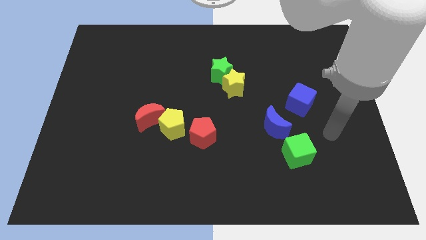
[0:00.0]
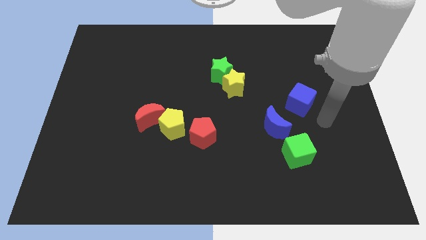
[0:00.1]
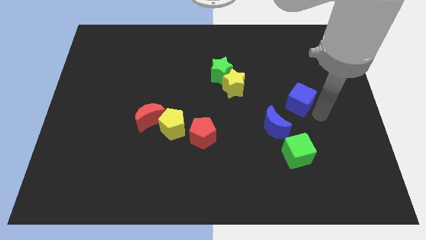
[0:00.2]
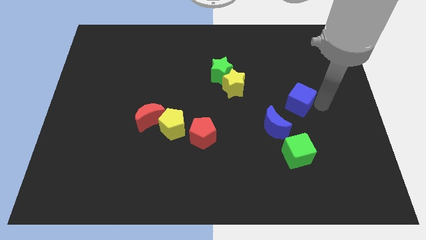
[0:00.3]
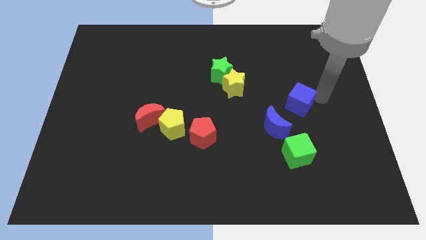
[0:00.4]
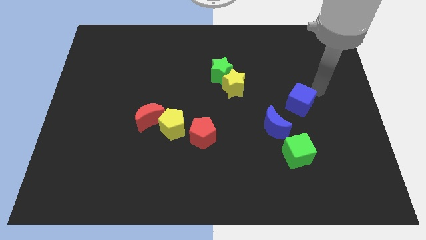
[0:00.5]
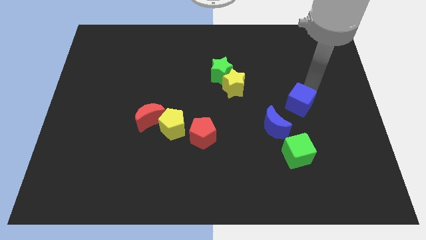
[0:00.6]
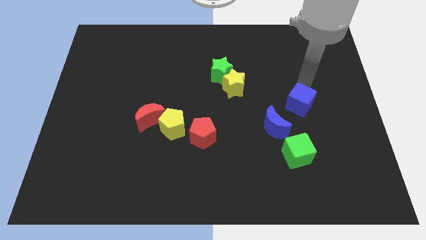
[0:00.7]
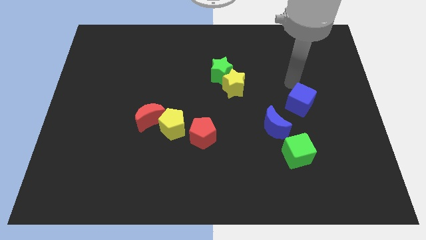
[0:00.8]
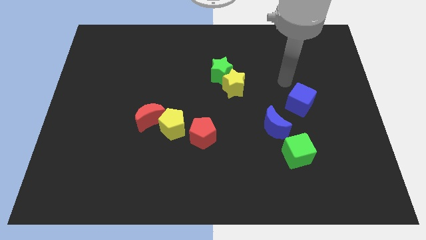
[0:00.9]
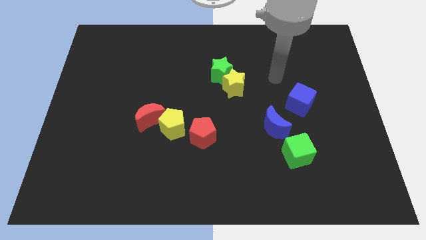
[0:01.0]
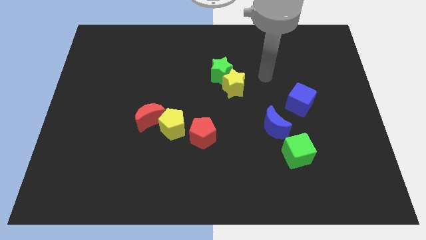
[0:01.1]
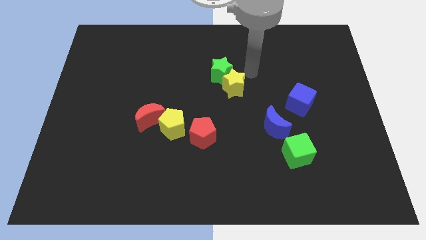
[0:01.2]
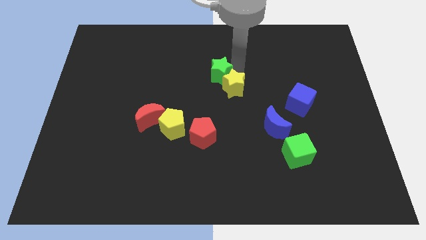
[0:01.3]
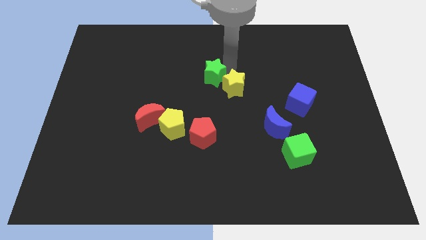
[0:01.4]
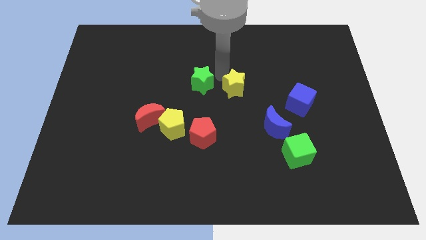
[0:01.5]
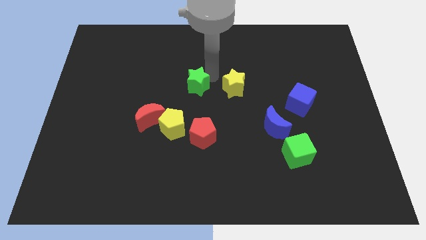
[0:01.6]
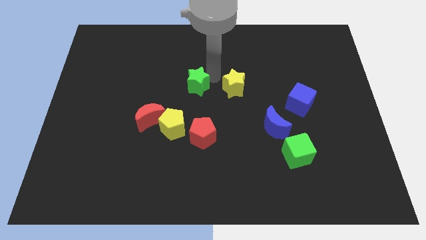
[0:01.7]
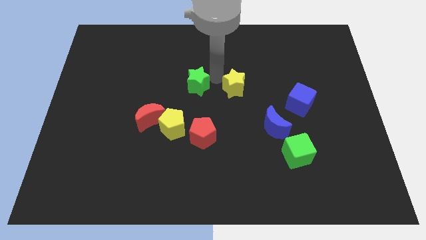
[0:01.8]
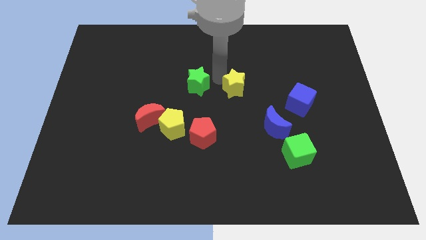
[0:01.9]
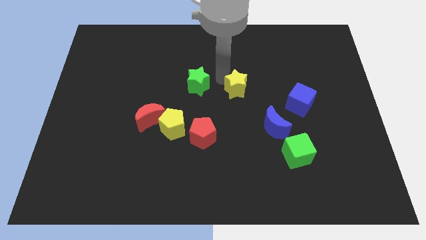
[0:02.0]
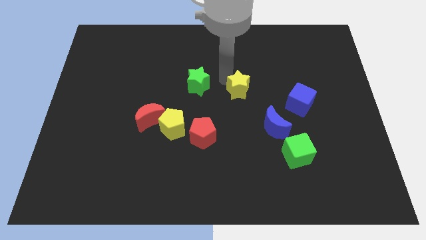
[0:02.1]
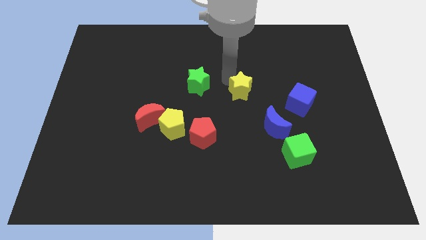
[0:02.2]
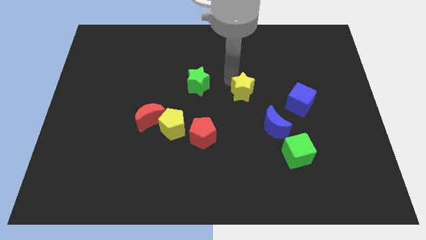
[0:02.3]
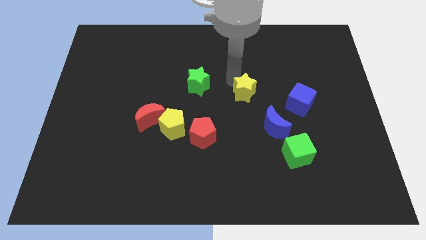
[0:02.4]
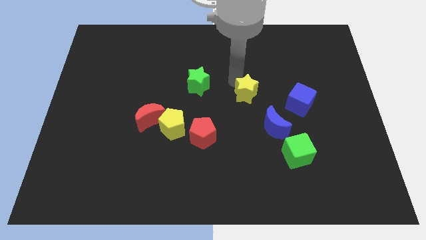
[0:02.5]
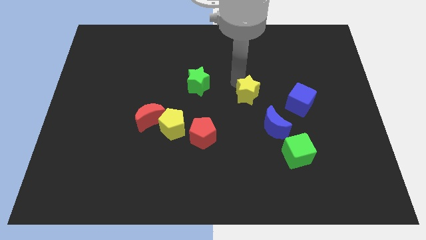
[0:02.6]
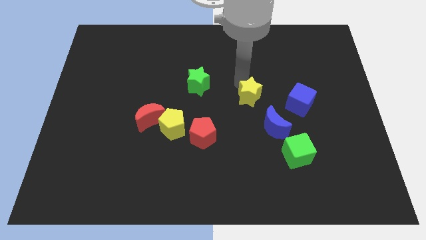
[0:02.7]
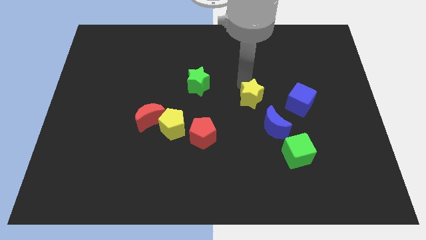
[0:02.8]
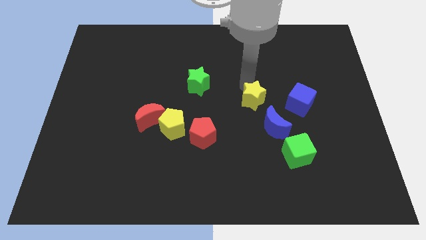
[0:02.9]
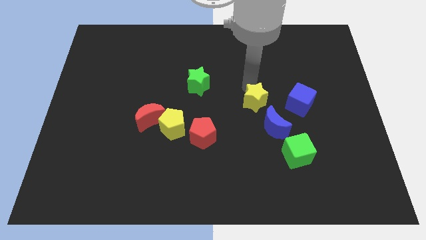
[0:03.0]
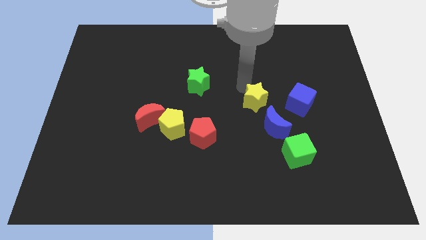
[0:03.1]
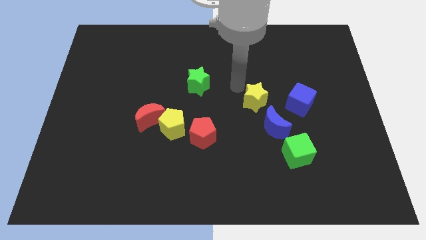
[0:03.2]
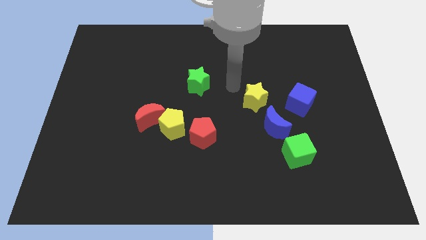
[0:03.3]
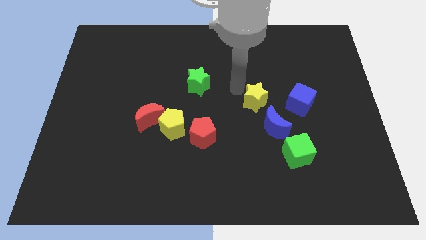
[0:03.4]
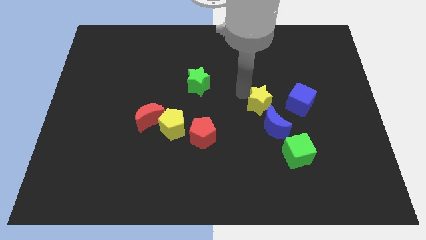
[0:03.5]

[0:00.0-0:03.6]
slide the yellow star diagonally downwards and right a little

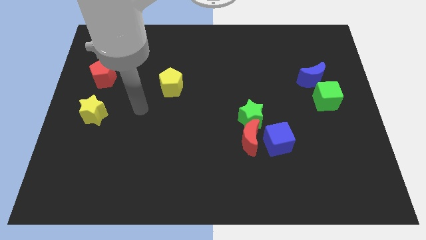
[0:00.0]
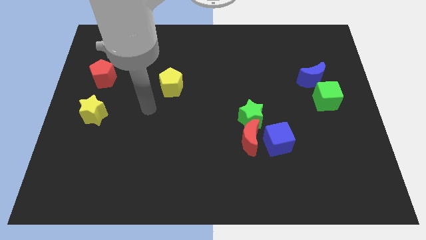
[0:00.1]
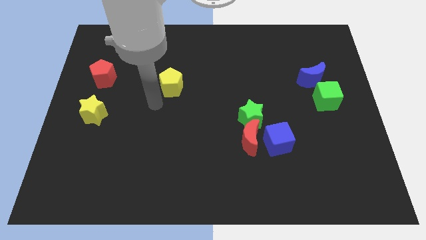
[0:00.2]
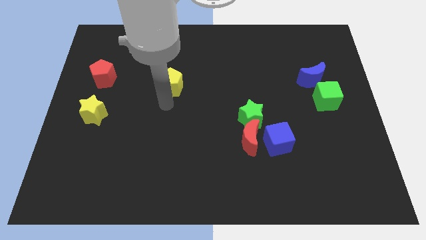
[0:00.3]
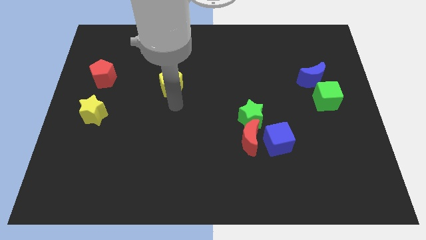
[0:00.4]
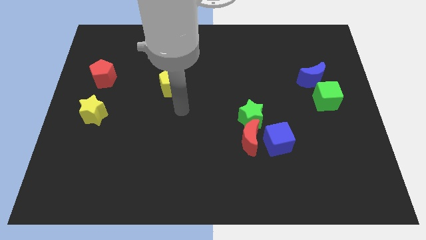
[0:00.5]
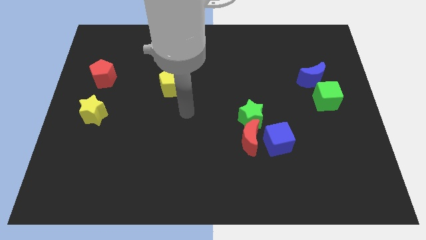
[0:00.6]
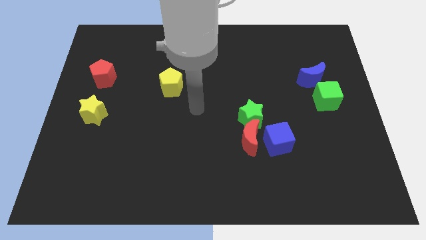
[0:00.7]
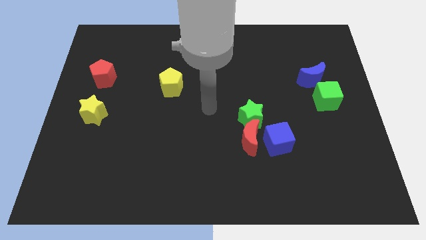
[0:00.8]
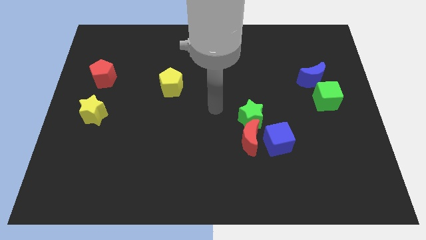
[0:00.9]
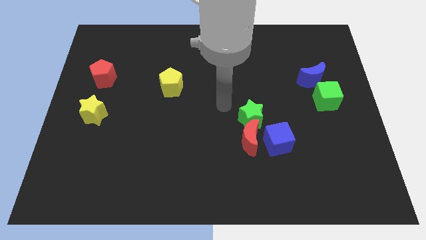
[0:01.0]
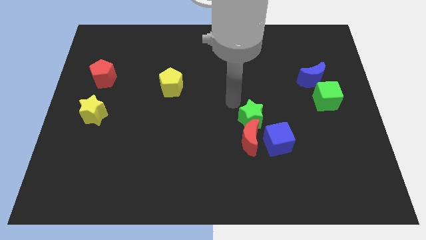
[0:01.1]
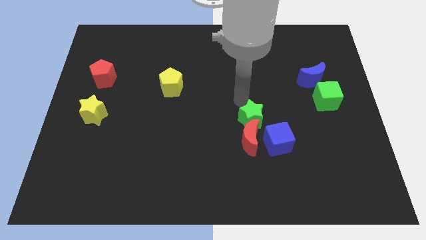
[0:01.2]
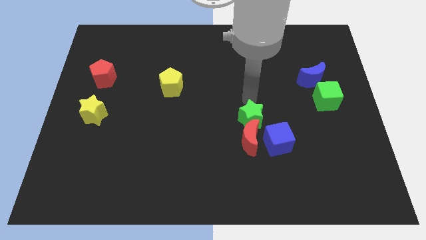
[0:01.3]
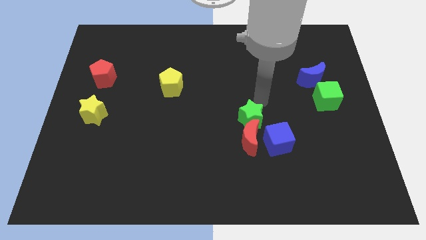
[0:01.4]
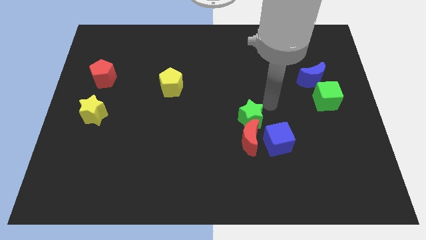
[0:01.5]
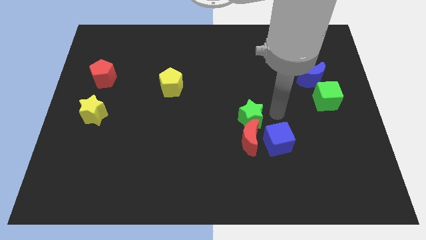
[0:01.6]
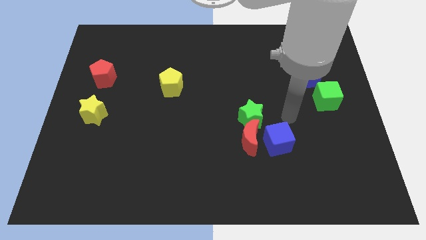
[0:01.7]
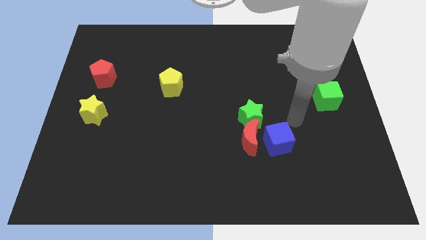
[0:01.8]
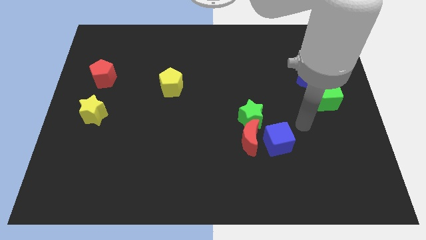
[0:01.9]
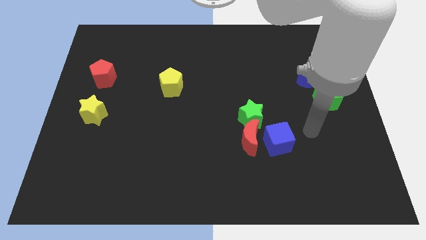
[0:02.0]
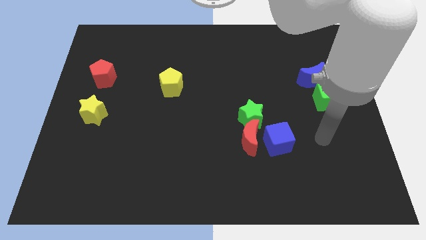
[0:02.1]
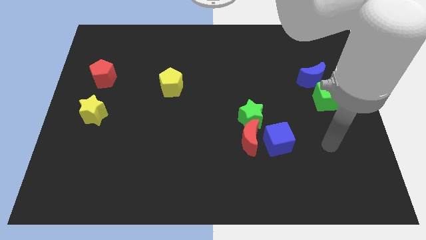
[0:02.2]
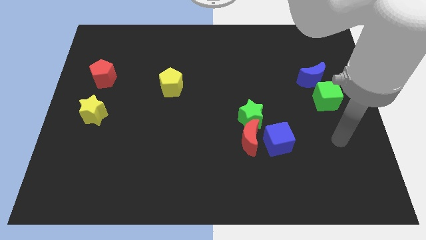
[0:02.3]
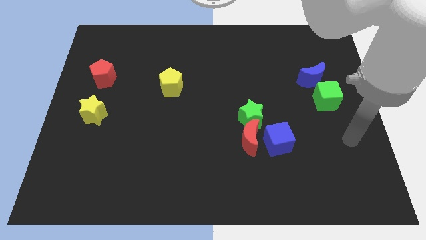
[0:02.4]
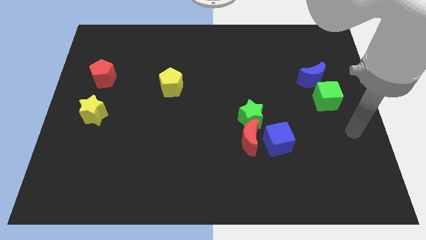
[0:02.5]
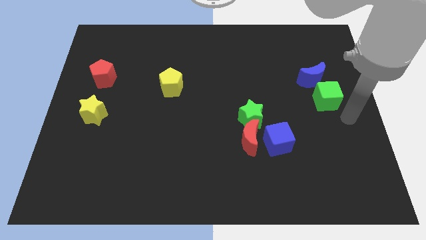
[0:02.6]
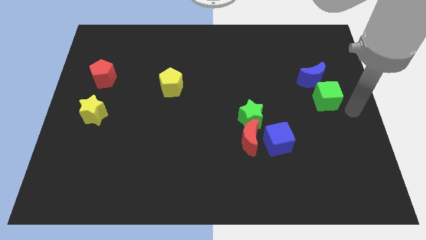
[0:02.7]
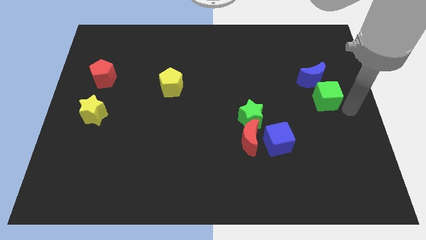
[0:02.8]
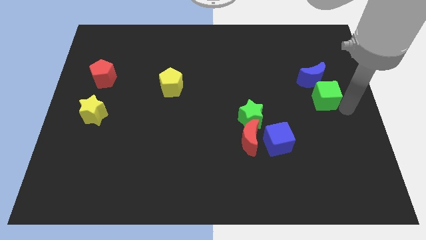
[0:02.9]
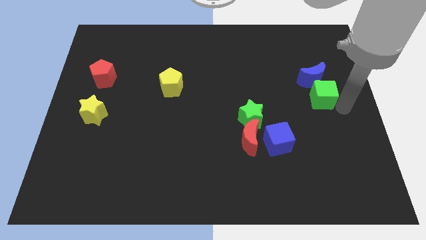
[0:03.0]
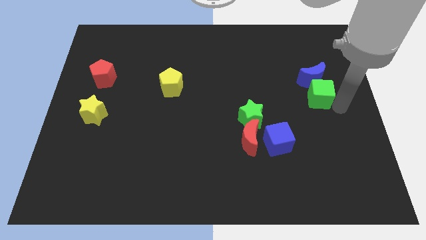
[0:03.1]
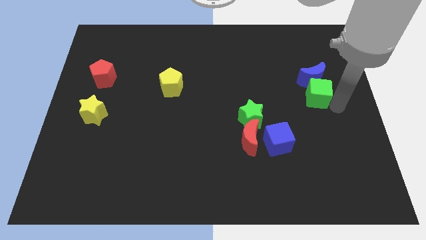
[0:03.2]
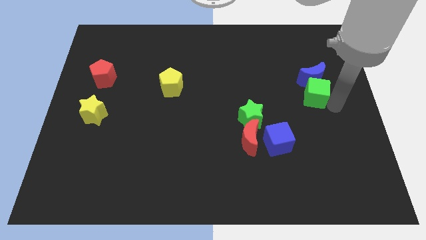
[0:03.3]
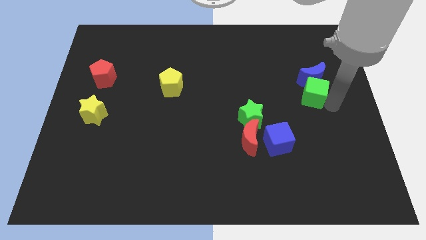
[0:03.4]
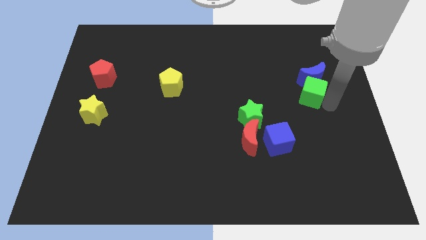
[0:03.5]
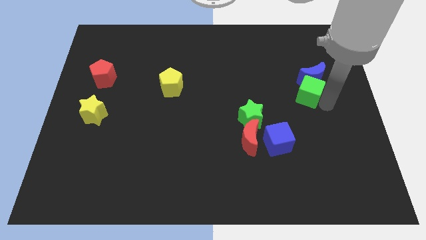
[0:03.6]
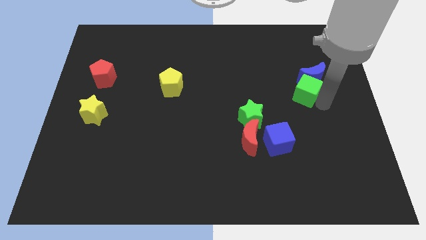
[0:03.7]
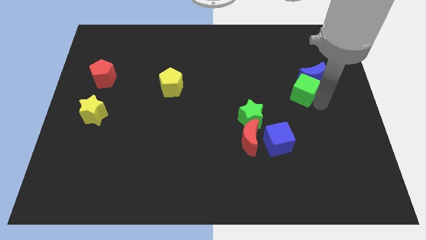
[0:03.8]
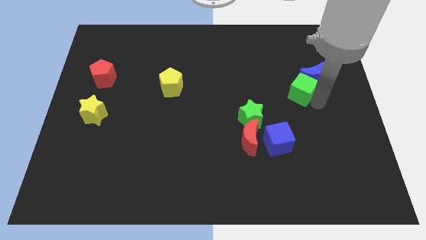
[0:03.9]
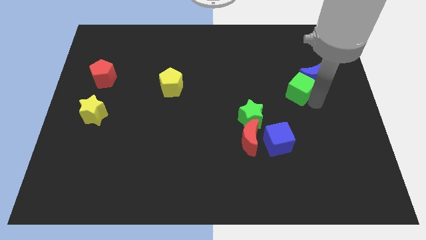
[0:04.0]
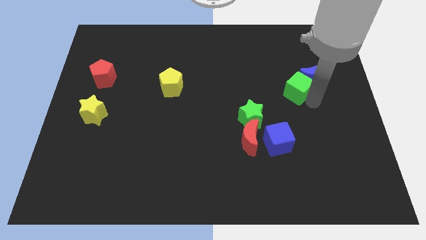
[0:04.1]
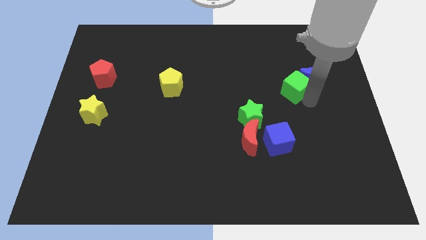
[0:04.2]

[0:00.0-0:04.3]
slide the green cube slightly up and then to the left

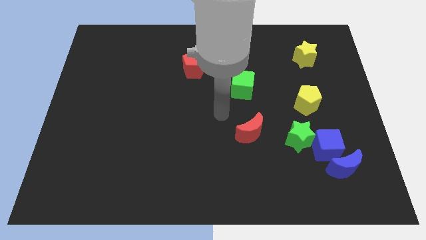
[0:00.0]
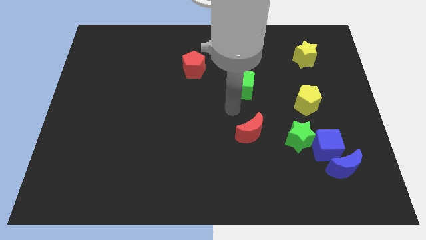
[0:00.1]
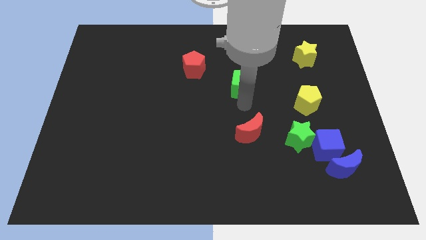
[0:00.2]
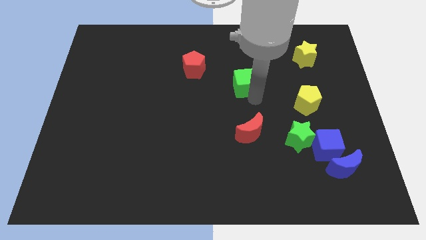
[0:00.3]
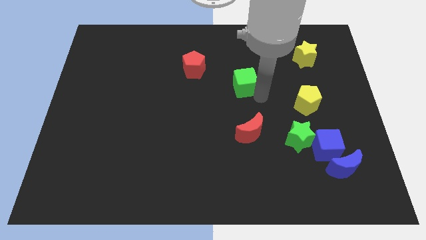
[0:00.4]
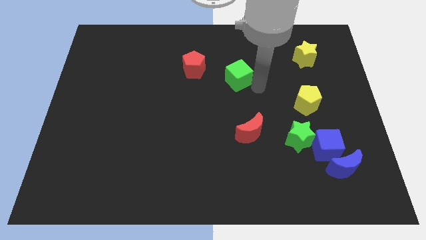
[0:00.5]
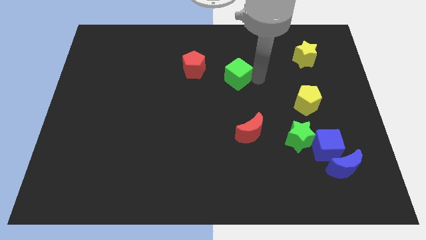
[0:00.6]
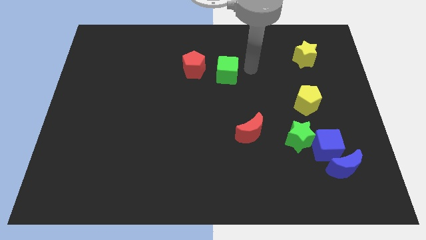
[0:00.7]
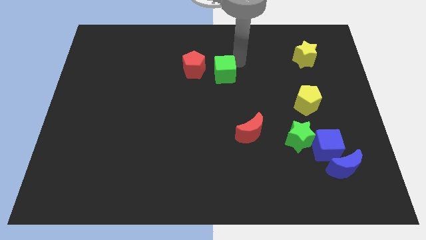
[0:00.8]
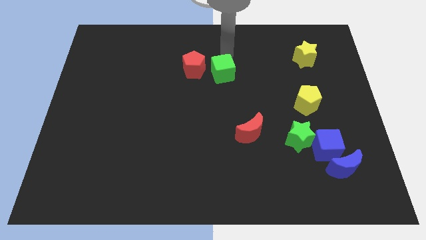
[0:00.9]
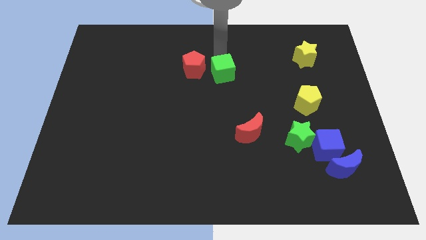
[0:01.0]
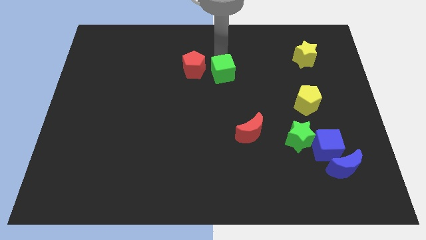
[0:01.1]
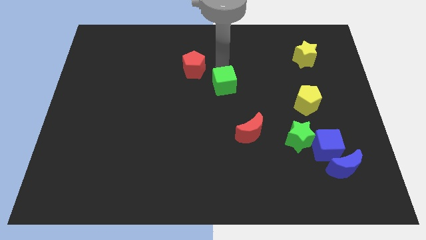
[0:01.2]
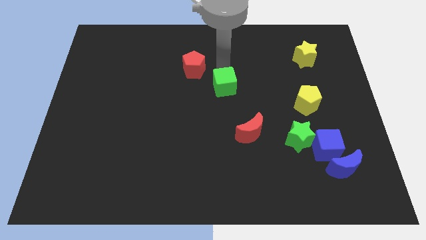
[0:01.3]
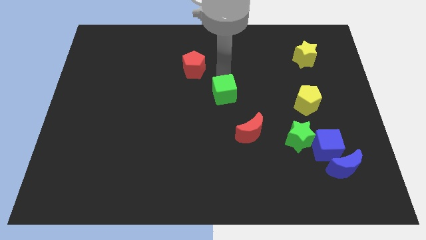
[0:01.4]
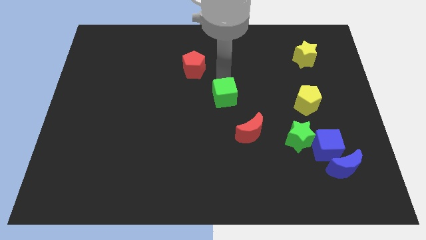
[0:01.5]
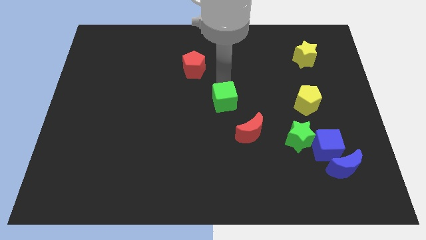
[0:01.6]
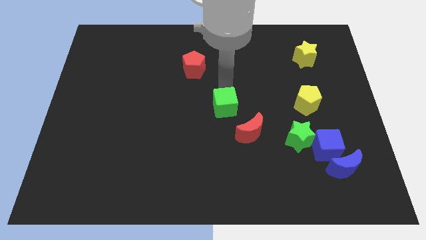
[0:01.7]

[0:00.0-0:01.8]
move the green cube down and to the left diagonally a little
